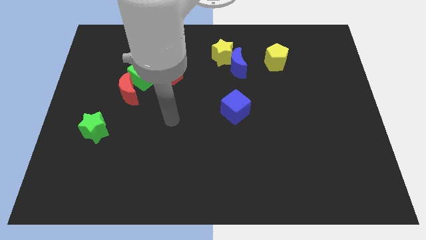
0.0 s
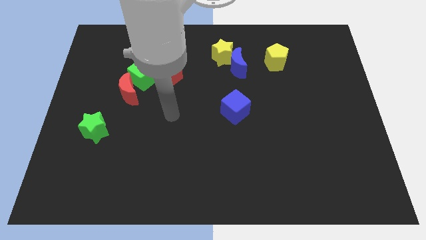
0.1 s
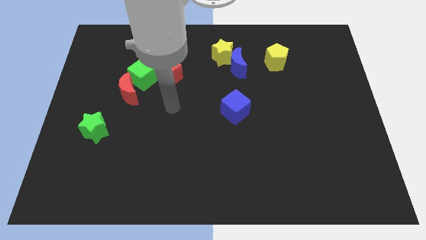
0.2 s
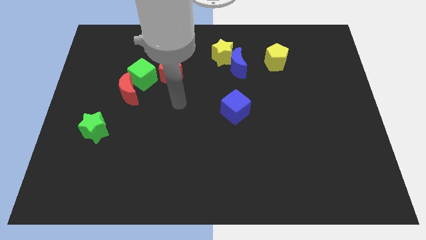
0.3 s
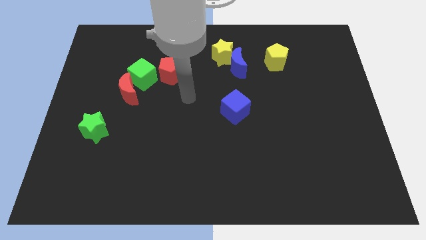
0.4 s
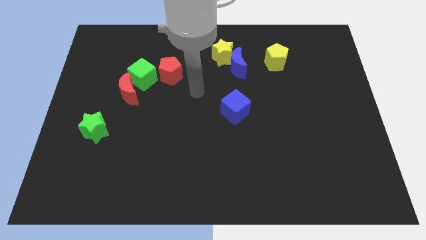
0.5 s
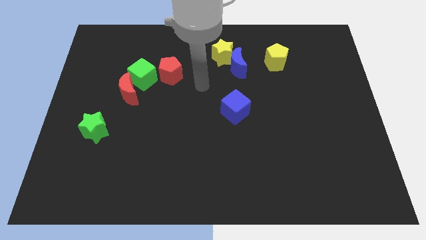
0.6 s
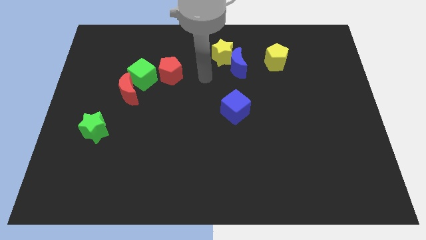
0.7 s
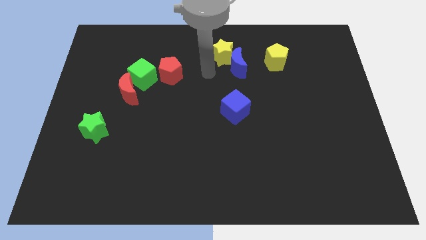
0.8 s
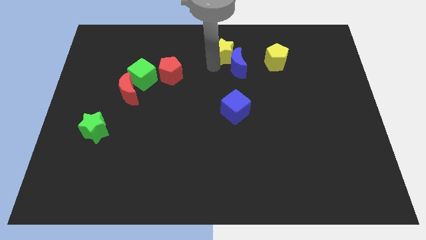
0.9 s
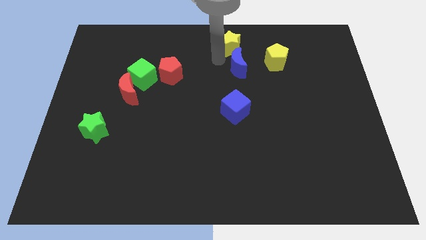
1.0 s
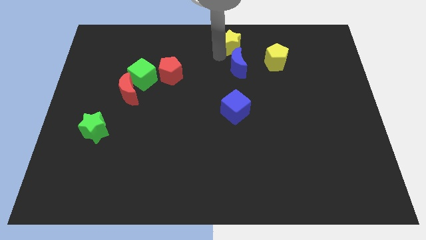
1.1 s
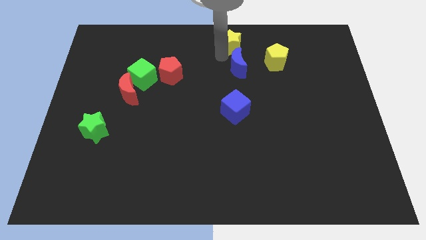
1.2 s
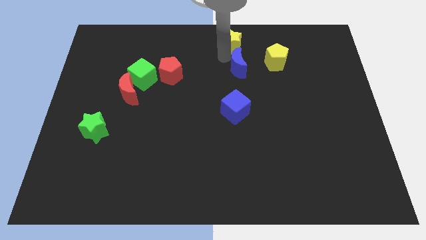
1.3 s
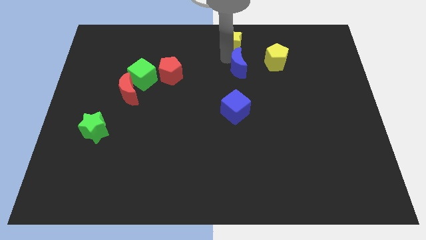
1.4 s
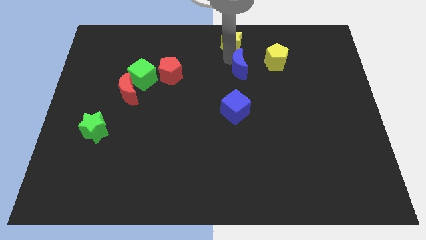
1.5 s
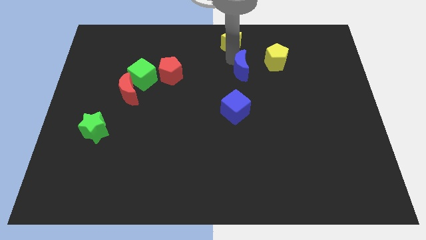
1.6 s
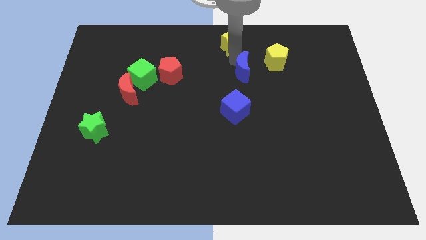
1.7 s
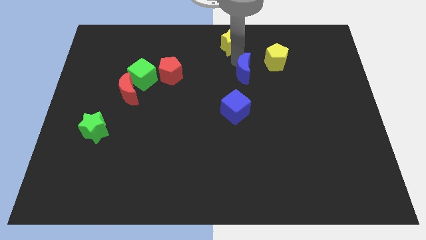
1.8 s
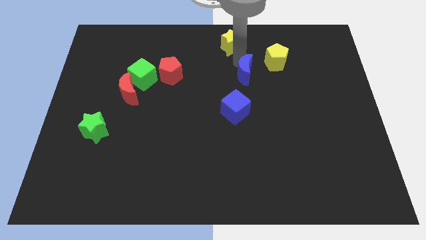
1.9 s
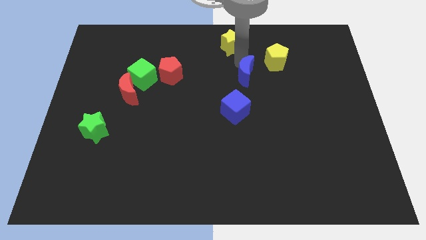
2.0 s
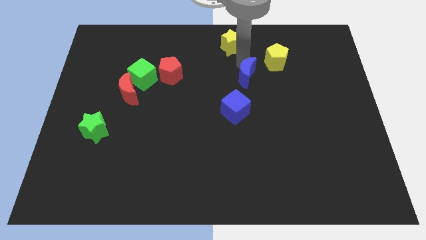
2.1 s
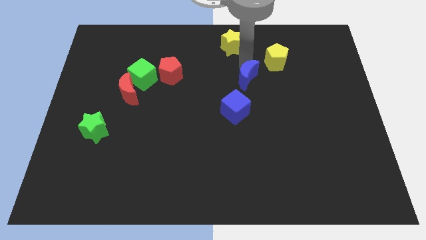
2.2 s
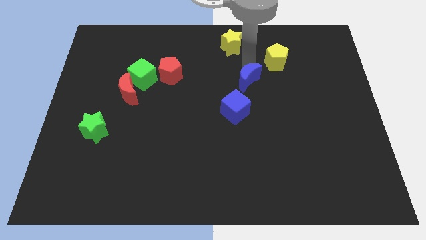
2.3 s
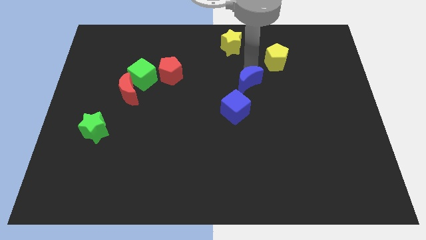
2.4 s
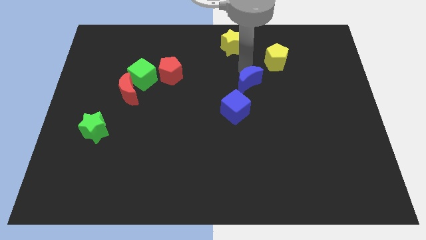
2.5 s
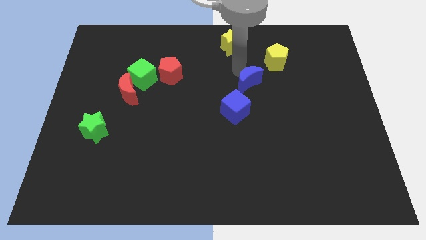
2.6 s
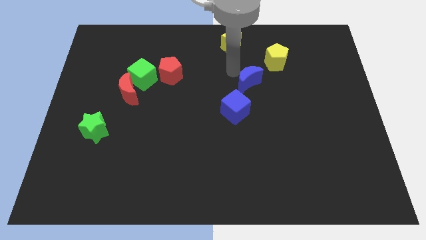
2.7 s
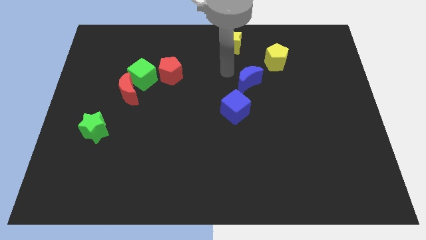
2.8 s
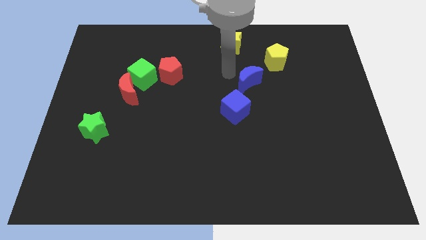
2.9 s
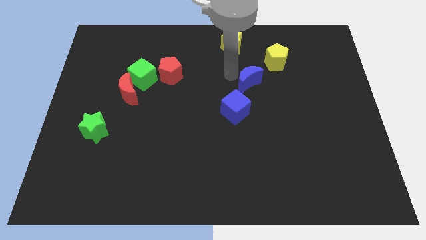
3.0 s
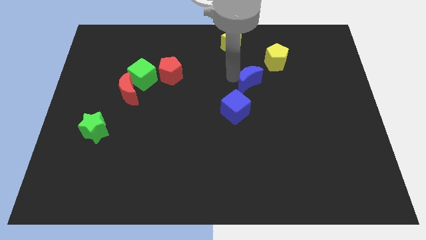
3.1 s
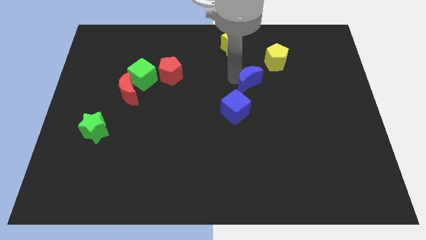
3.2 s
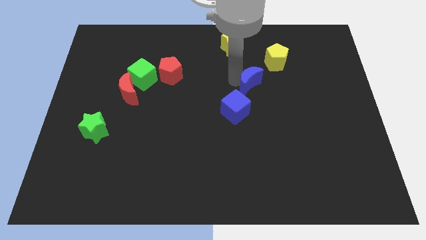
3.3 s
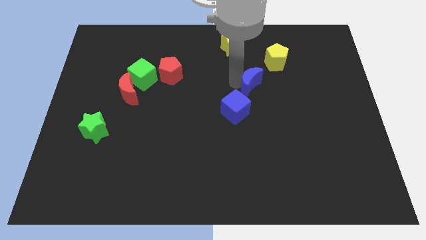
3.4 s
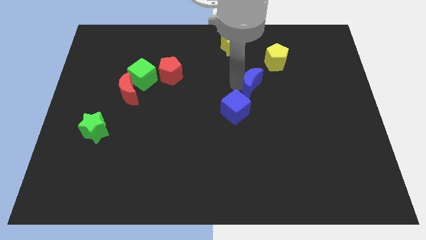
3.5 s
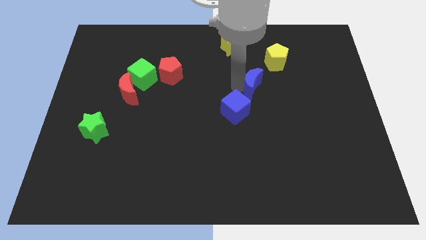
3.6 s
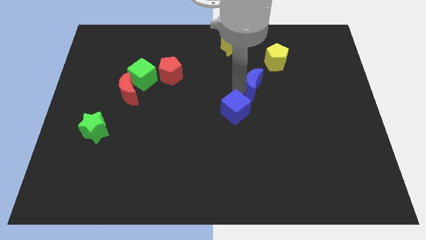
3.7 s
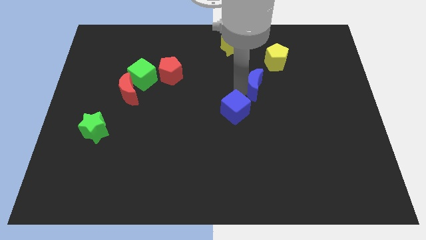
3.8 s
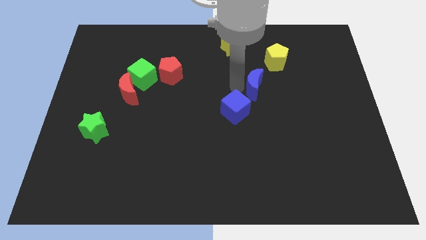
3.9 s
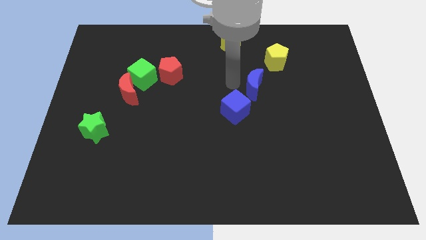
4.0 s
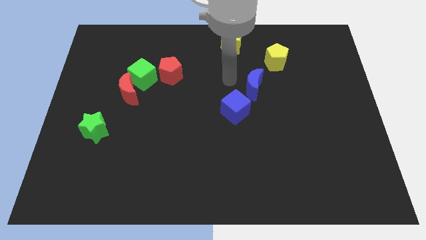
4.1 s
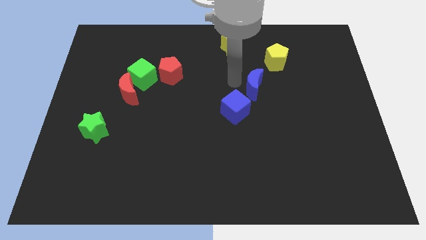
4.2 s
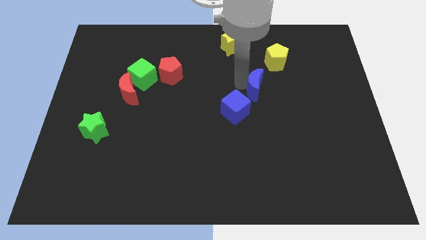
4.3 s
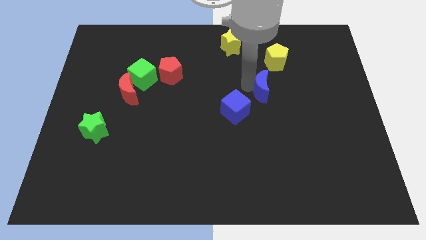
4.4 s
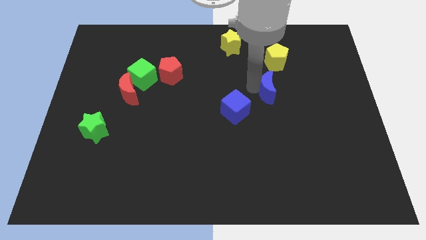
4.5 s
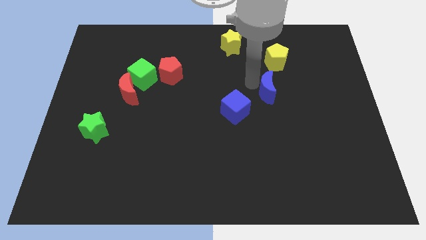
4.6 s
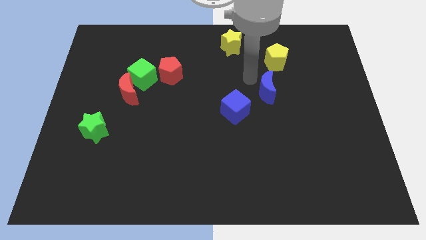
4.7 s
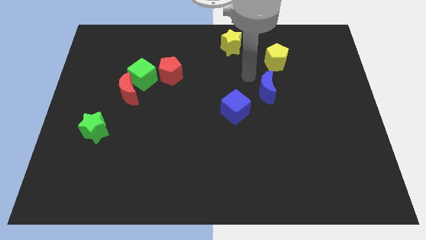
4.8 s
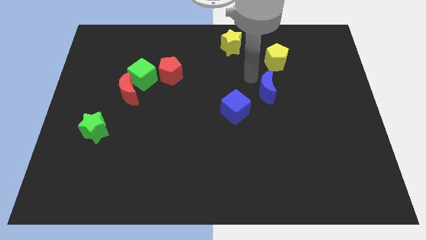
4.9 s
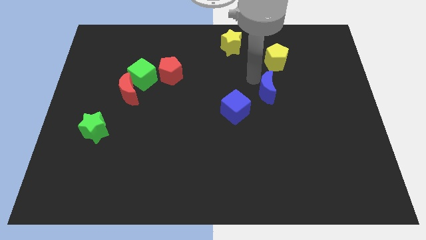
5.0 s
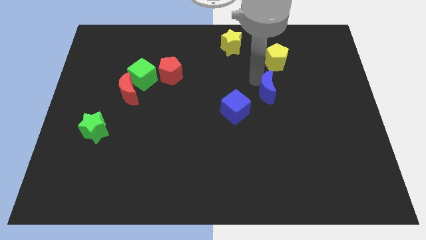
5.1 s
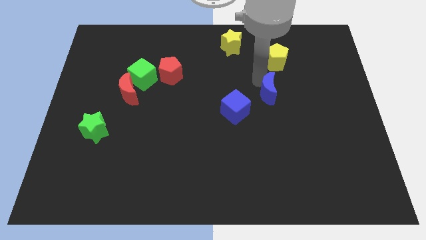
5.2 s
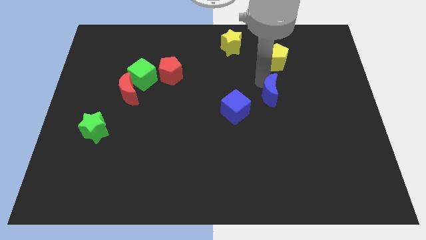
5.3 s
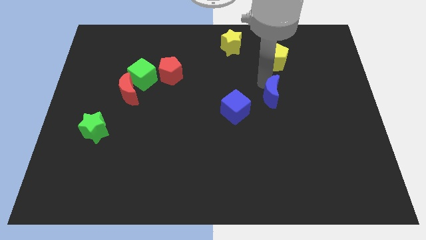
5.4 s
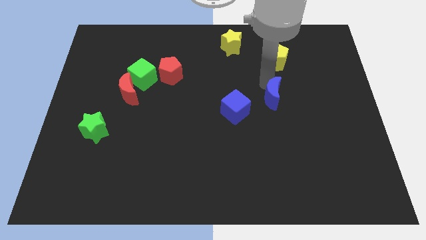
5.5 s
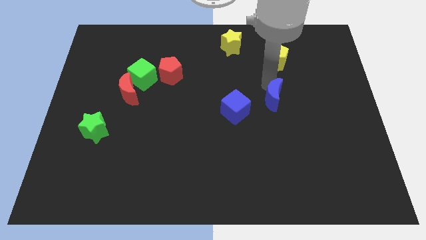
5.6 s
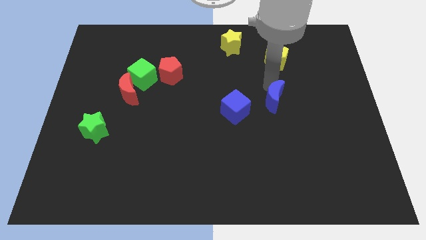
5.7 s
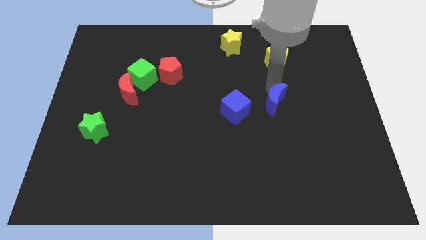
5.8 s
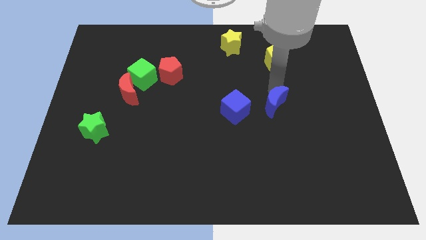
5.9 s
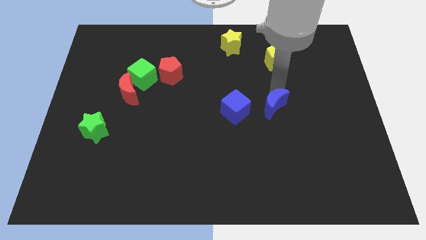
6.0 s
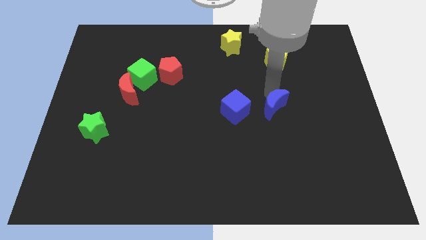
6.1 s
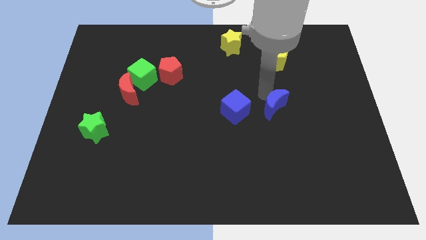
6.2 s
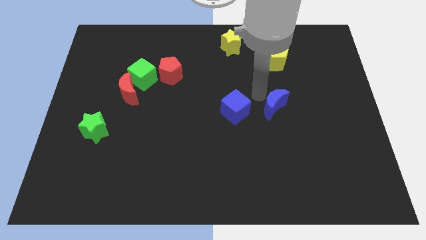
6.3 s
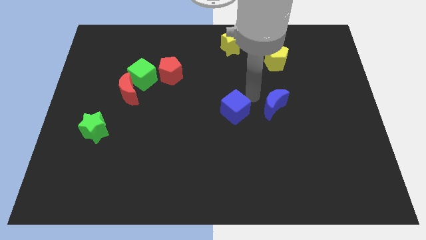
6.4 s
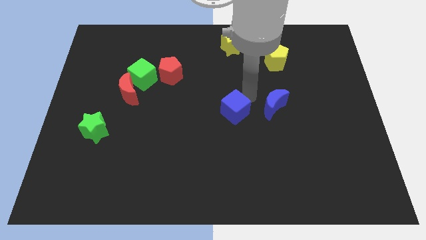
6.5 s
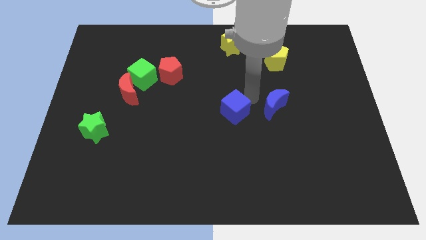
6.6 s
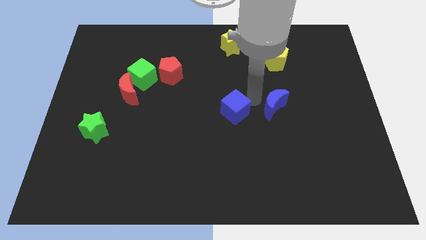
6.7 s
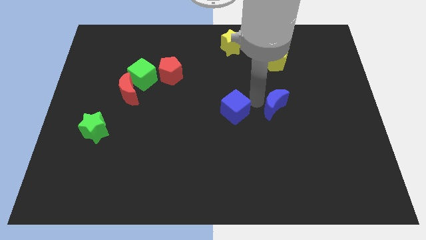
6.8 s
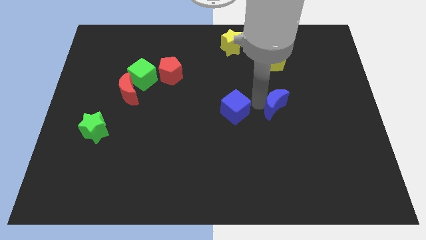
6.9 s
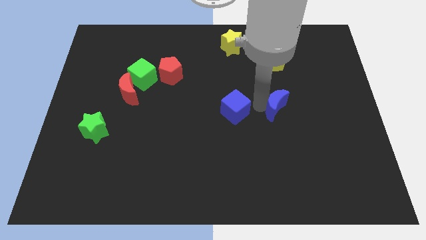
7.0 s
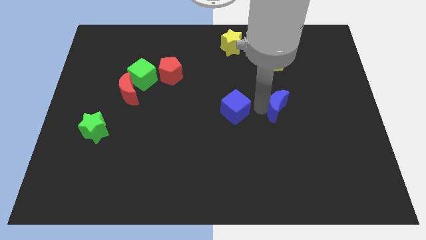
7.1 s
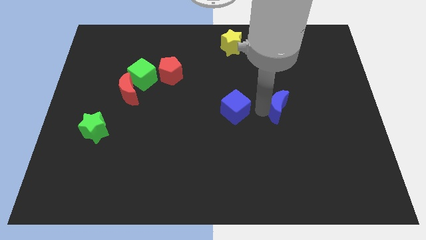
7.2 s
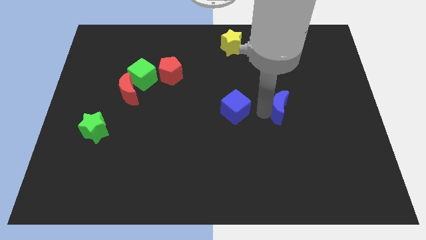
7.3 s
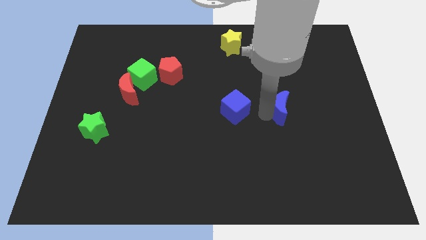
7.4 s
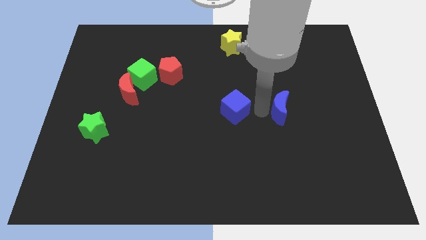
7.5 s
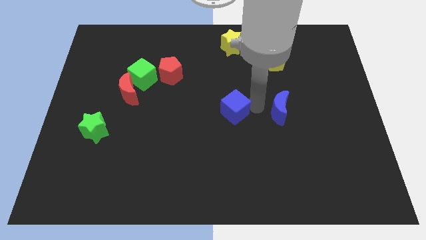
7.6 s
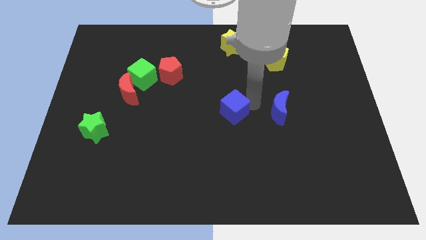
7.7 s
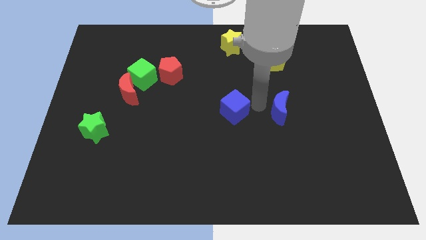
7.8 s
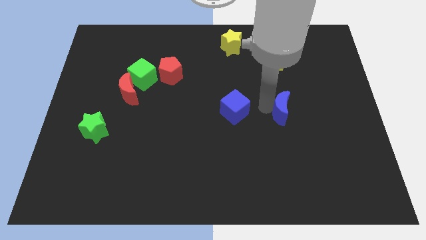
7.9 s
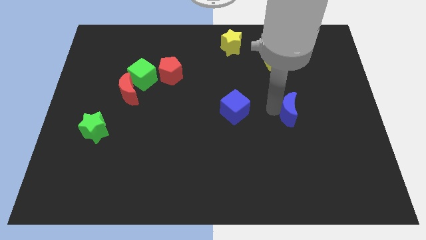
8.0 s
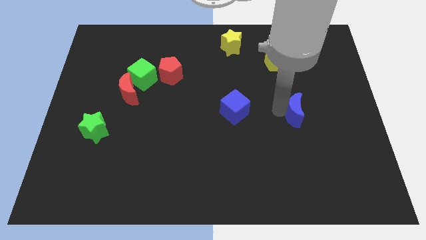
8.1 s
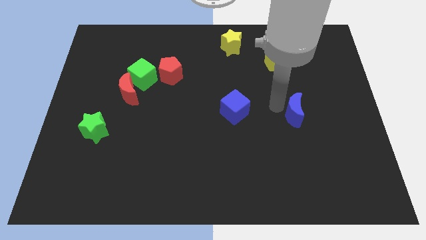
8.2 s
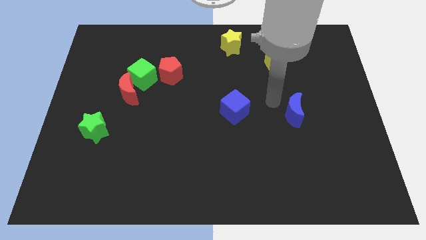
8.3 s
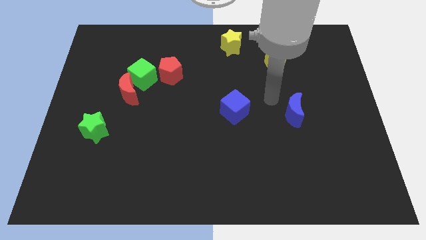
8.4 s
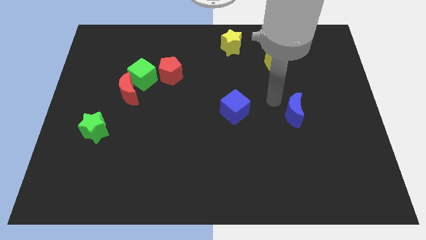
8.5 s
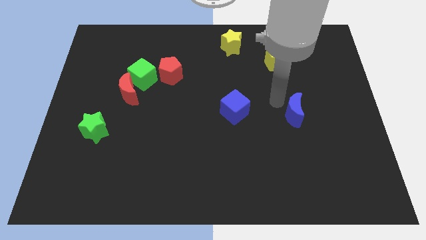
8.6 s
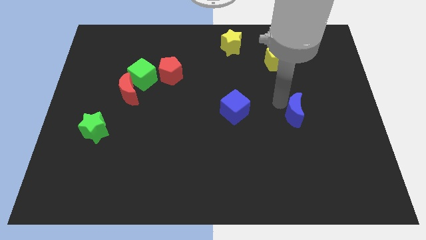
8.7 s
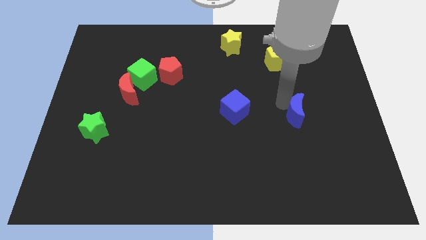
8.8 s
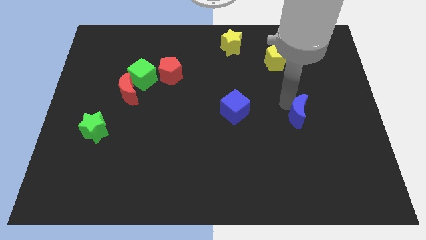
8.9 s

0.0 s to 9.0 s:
slide the blue moon down and right diagonally
